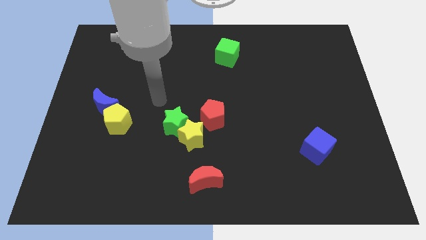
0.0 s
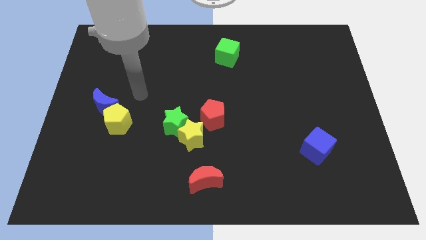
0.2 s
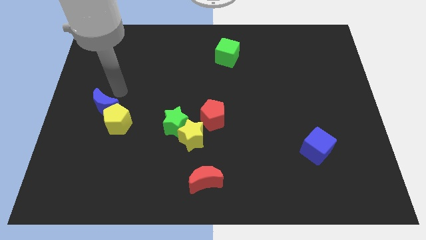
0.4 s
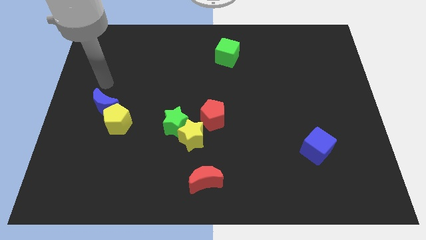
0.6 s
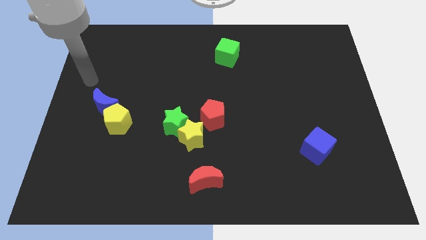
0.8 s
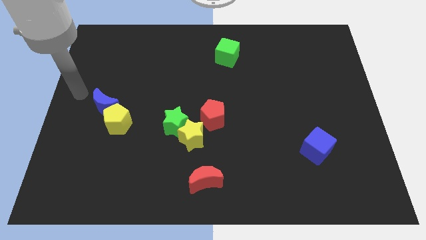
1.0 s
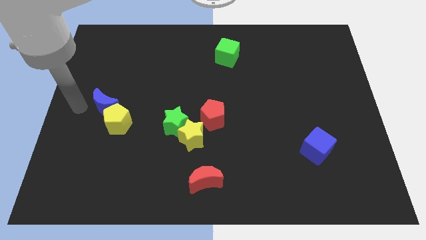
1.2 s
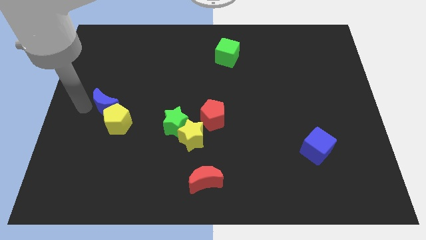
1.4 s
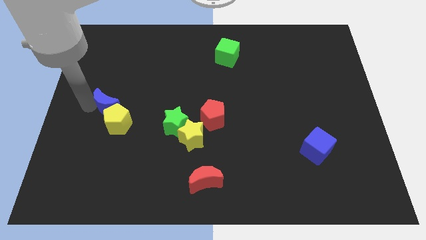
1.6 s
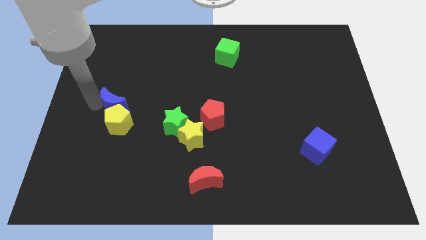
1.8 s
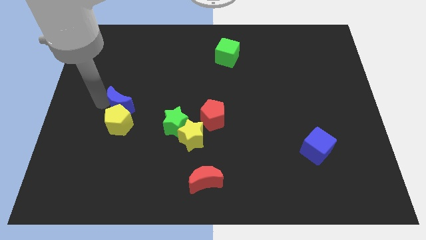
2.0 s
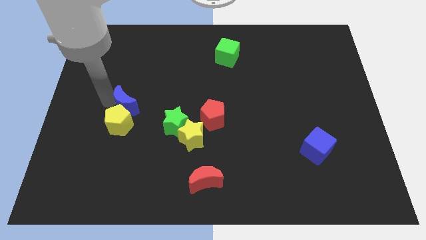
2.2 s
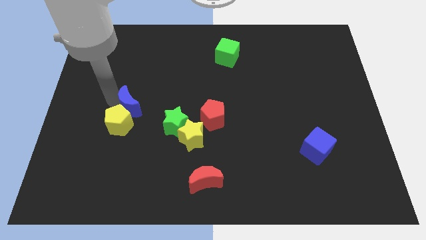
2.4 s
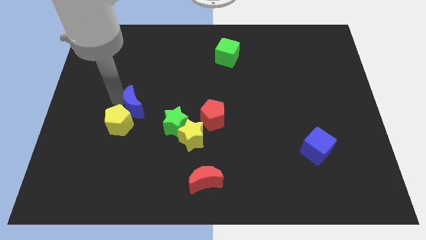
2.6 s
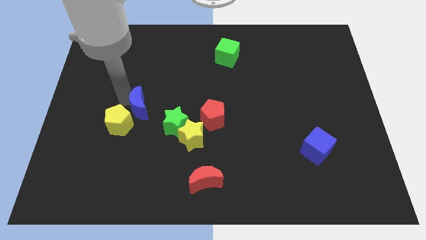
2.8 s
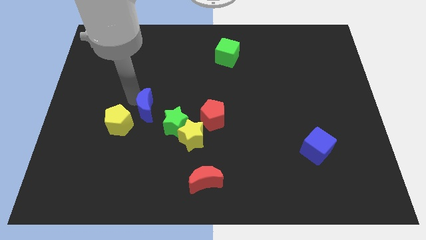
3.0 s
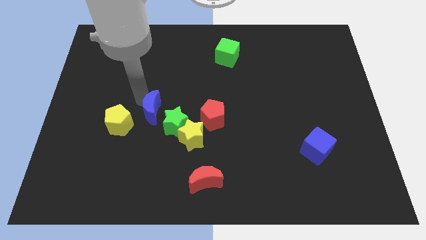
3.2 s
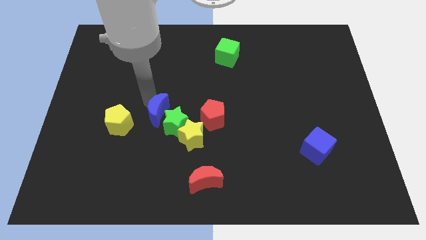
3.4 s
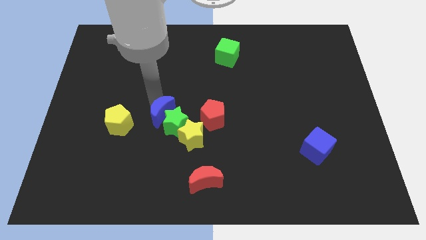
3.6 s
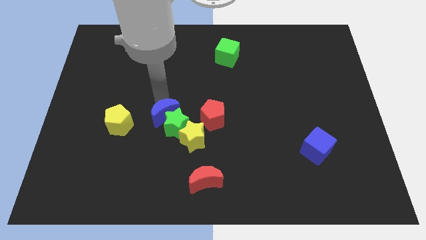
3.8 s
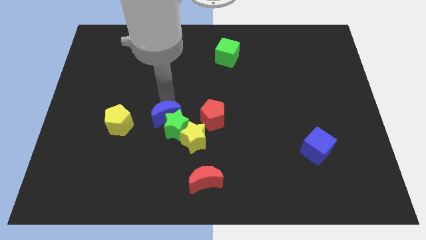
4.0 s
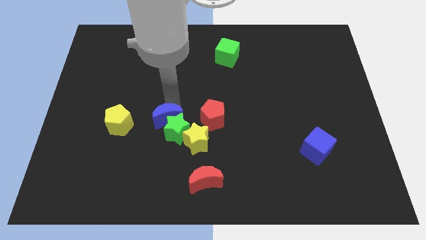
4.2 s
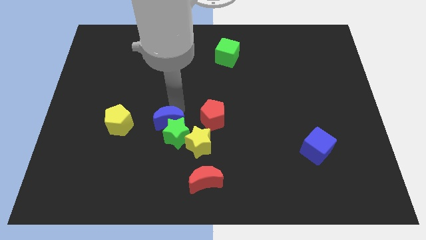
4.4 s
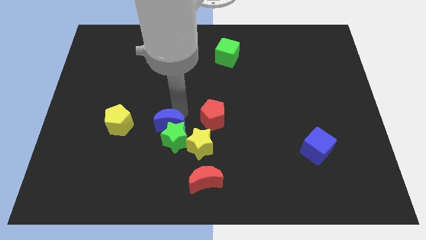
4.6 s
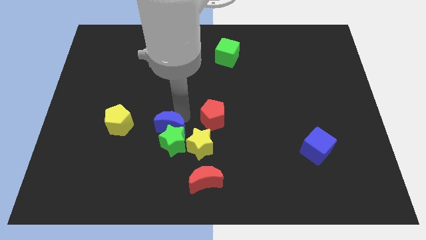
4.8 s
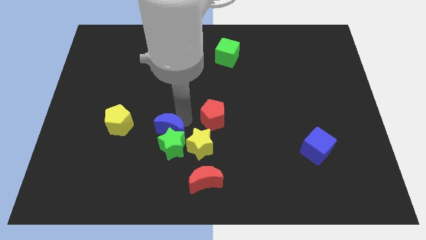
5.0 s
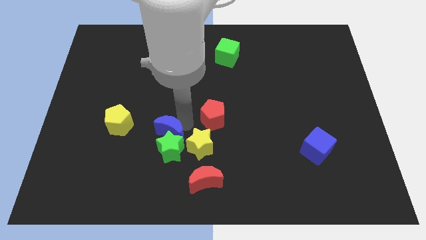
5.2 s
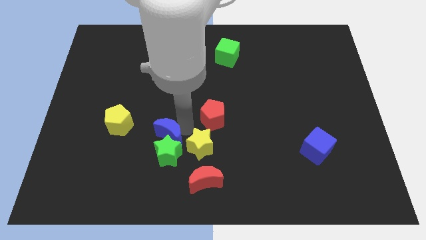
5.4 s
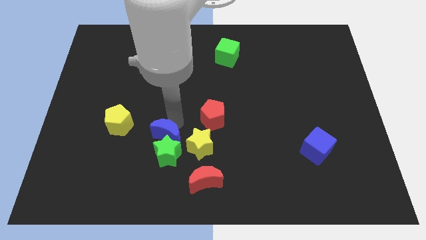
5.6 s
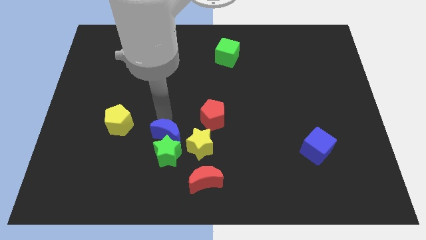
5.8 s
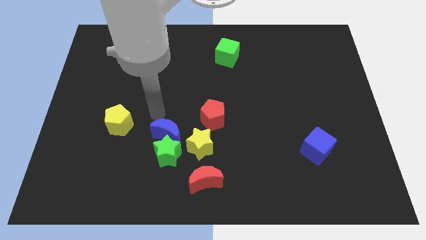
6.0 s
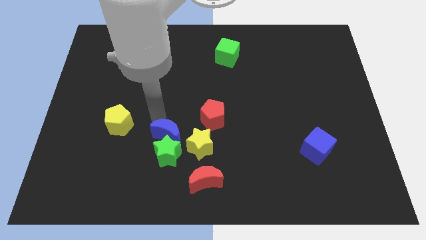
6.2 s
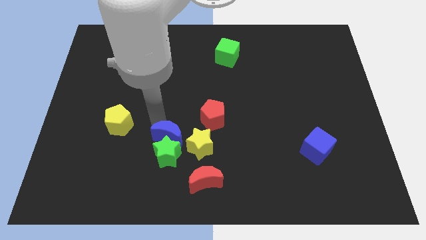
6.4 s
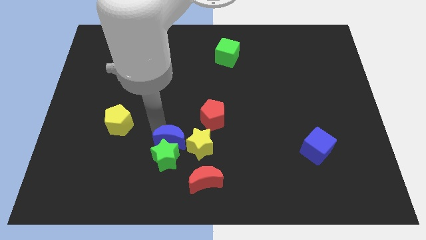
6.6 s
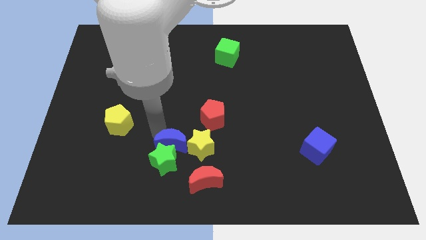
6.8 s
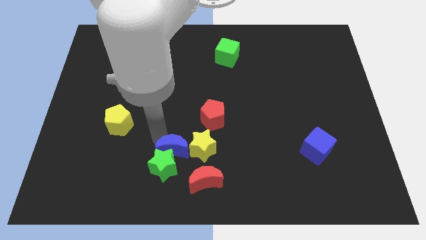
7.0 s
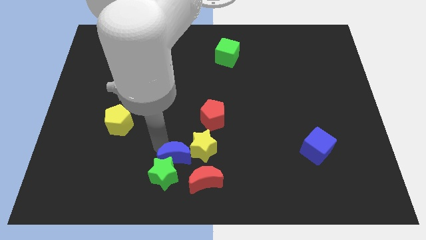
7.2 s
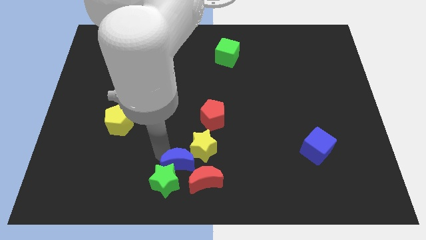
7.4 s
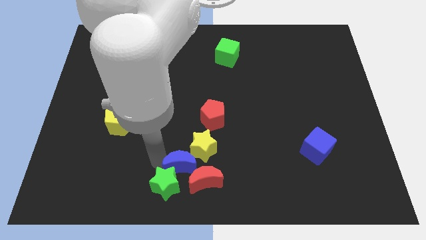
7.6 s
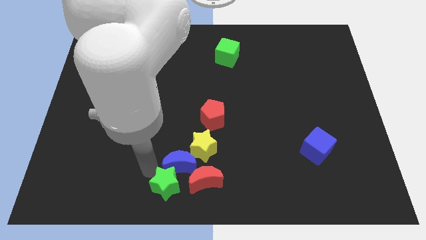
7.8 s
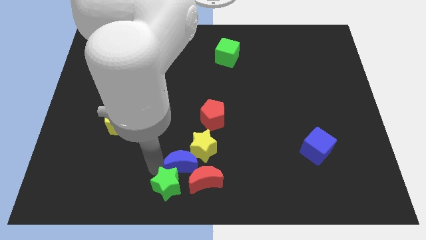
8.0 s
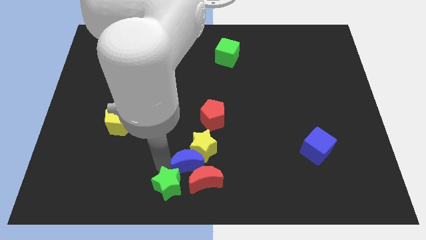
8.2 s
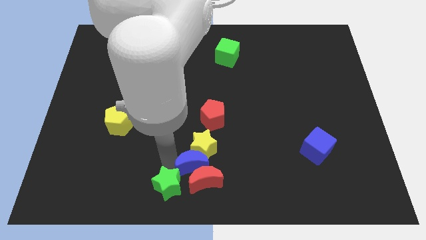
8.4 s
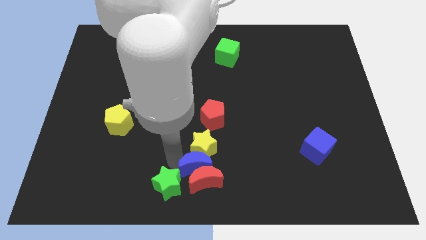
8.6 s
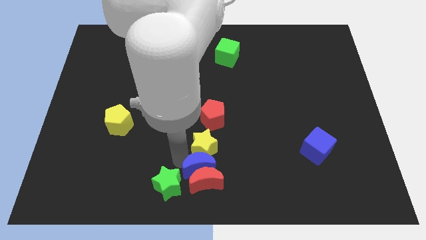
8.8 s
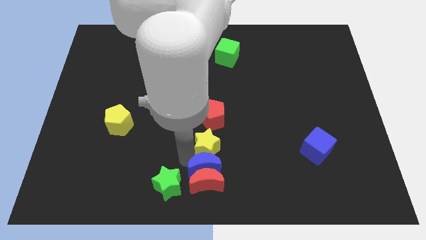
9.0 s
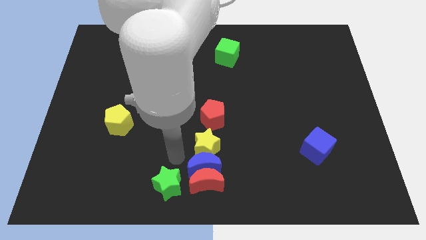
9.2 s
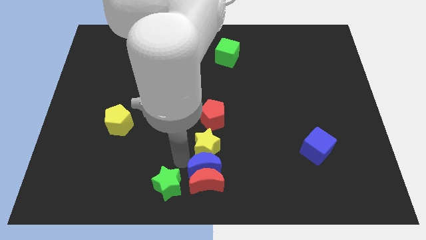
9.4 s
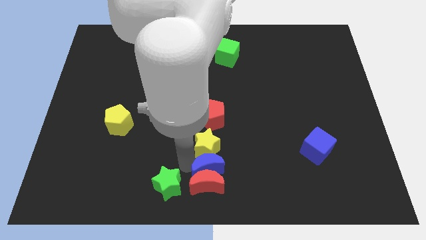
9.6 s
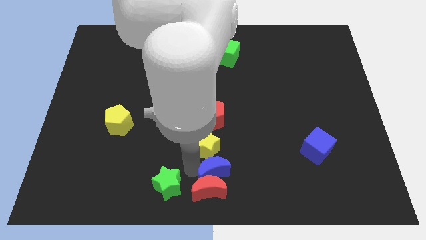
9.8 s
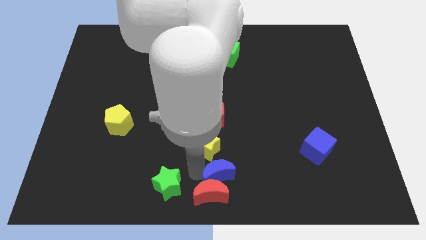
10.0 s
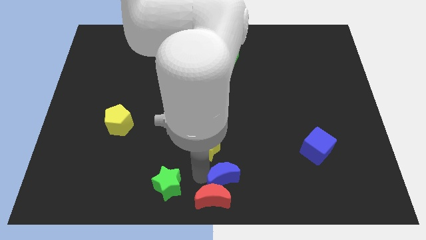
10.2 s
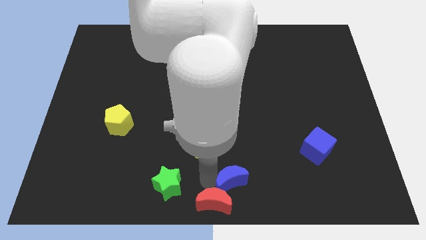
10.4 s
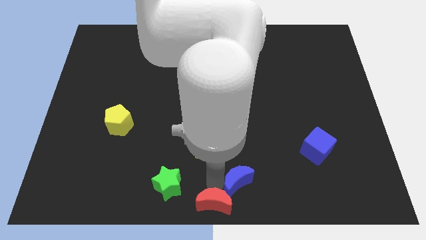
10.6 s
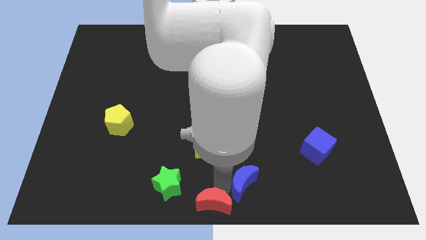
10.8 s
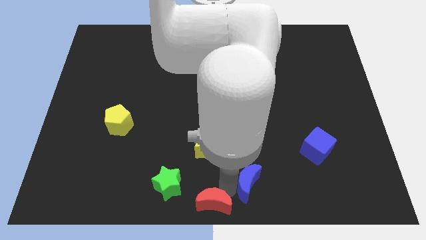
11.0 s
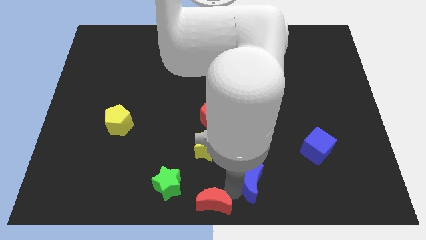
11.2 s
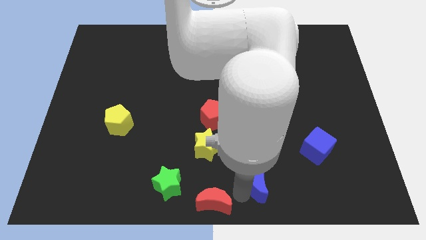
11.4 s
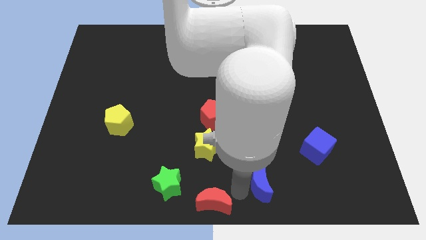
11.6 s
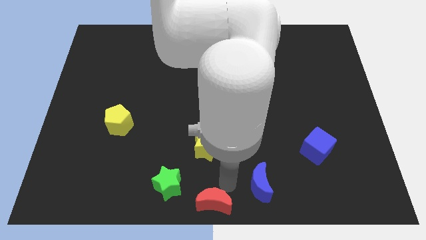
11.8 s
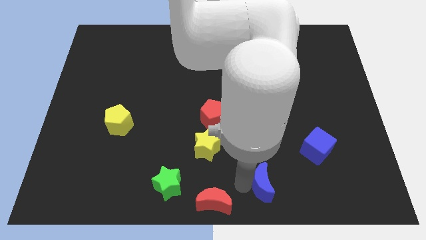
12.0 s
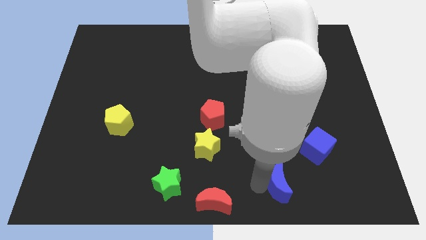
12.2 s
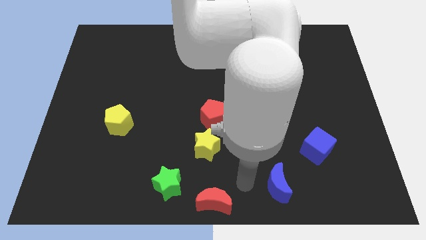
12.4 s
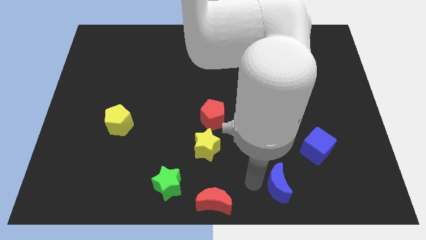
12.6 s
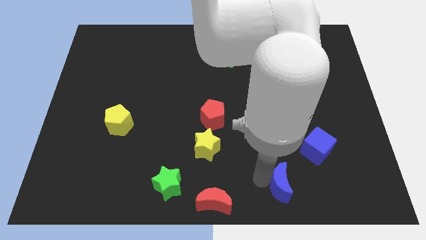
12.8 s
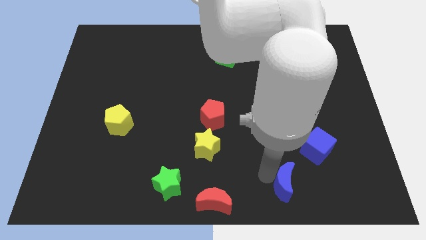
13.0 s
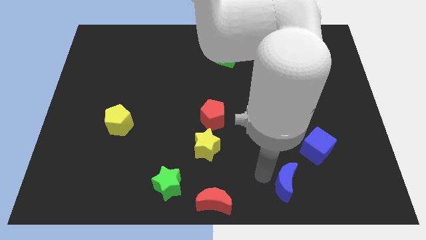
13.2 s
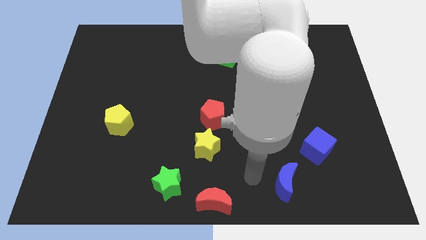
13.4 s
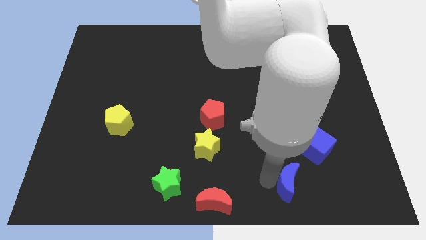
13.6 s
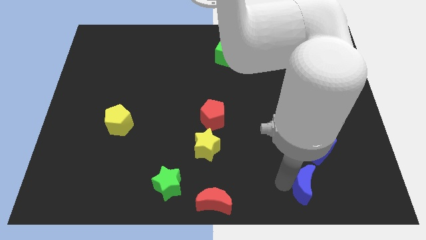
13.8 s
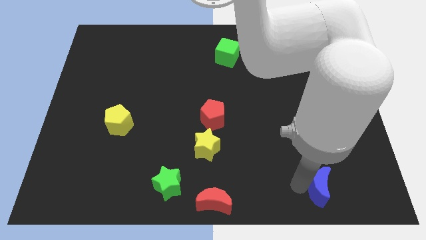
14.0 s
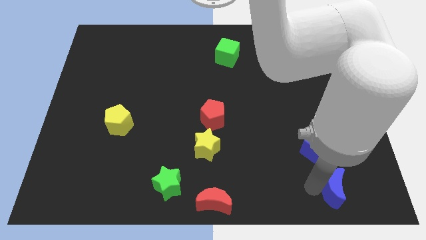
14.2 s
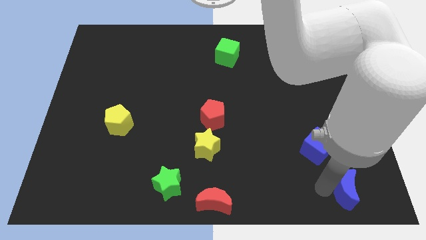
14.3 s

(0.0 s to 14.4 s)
move the blue moon to the lower right corner
